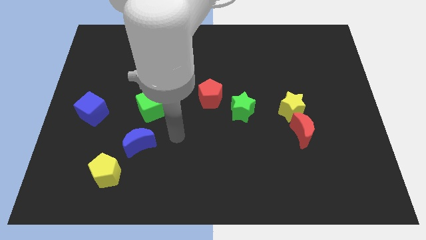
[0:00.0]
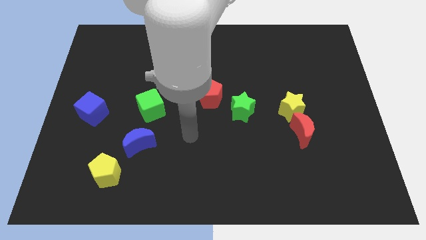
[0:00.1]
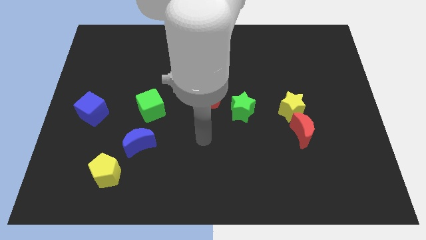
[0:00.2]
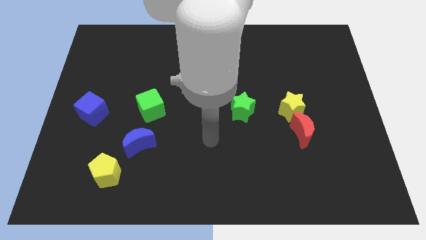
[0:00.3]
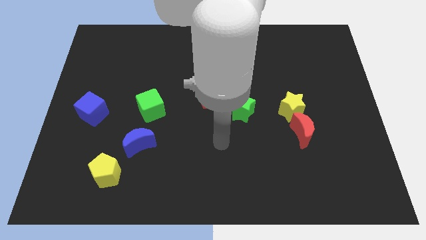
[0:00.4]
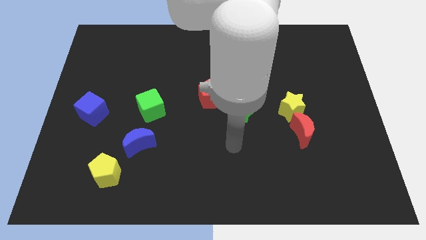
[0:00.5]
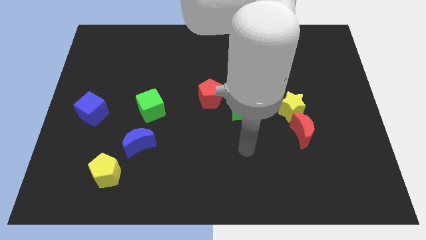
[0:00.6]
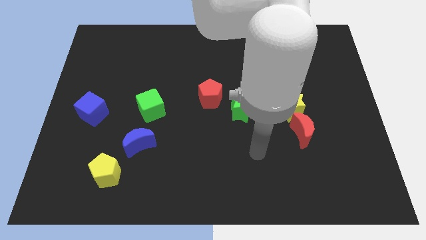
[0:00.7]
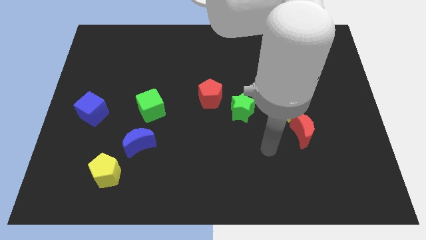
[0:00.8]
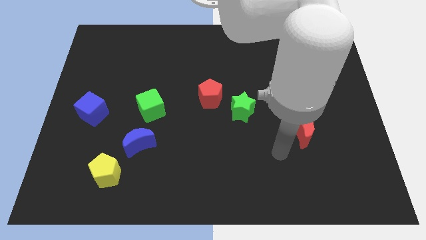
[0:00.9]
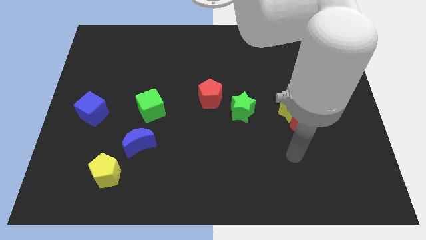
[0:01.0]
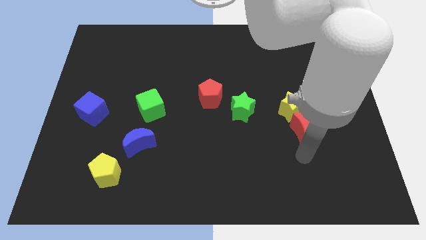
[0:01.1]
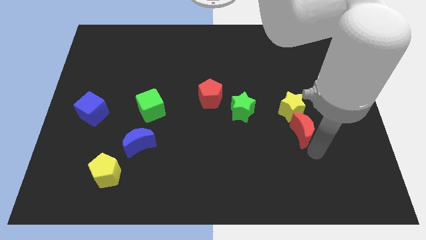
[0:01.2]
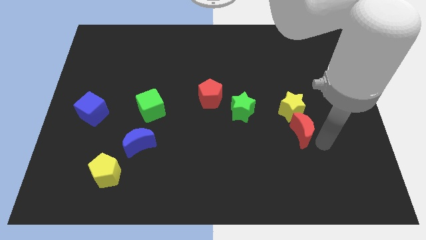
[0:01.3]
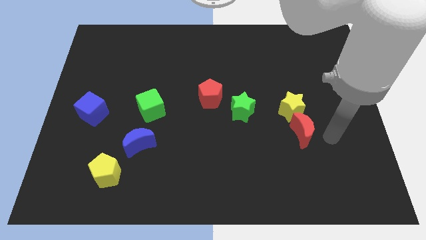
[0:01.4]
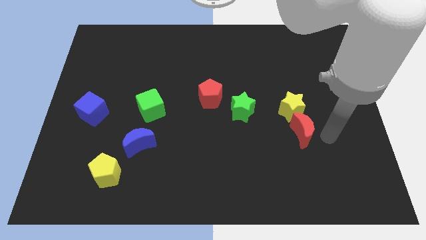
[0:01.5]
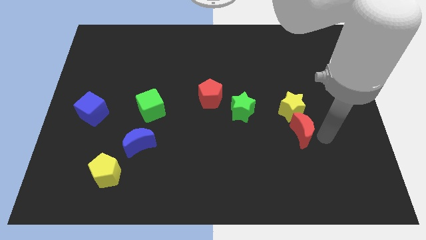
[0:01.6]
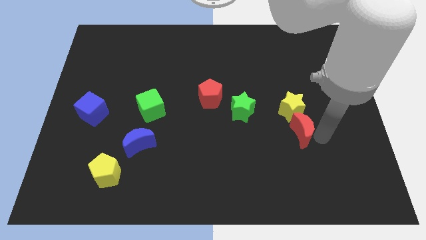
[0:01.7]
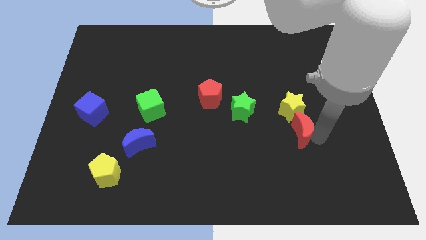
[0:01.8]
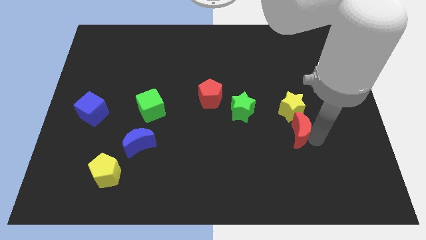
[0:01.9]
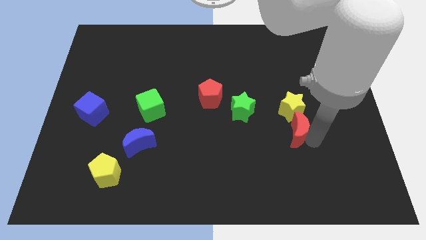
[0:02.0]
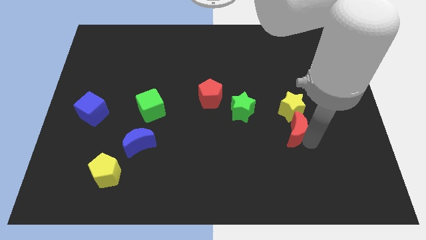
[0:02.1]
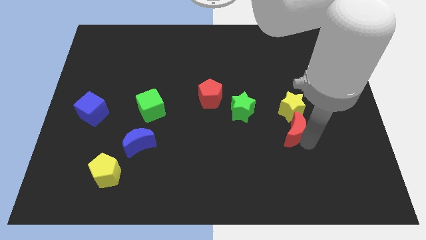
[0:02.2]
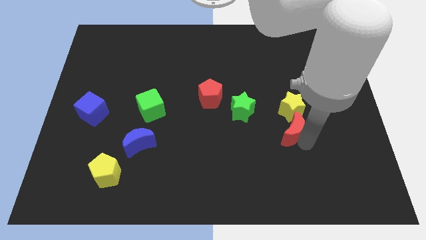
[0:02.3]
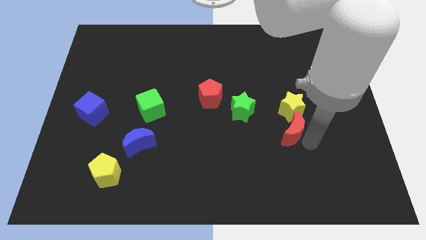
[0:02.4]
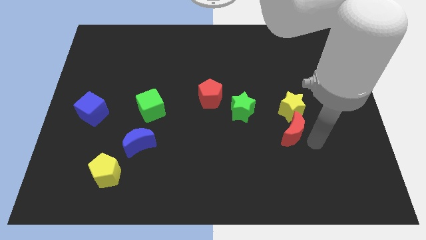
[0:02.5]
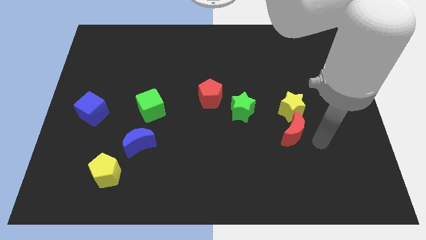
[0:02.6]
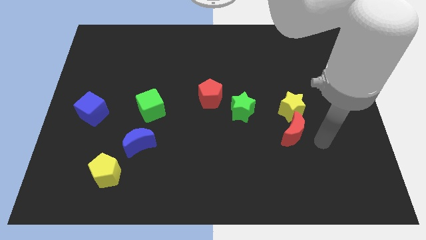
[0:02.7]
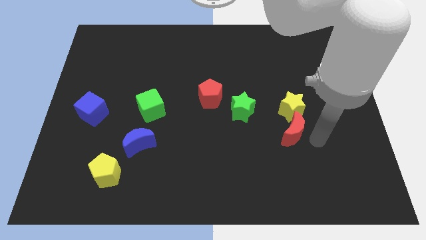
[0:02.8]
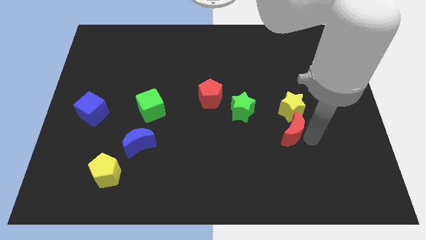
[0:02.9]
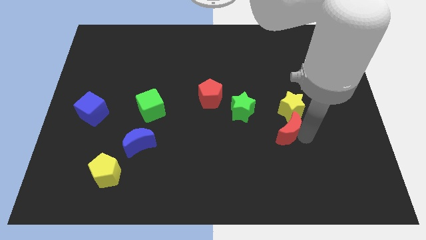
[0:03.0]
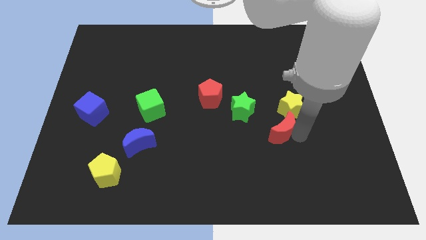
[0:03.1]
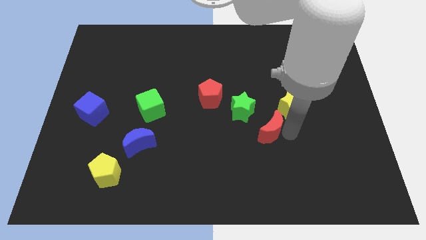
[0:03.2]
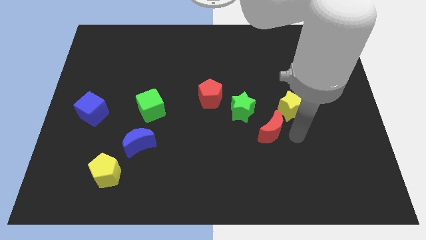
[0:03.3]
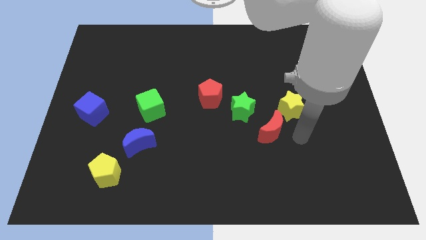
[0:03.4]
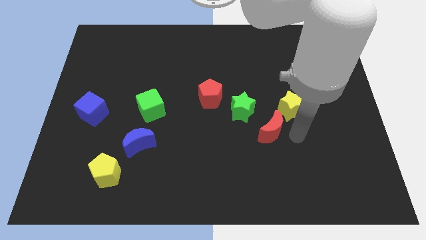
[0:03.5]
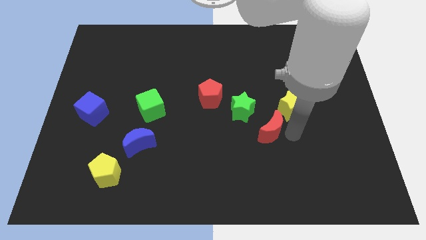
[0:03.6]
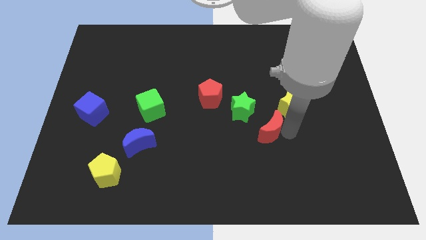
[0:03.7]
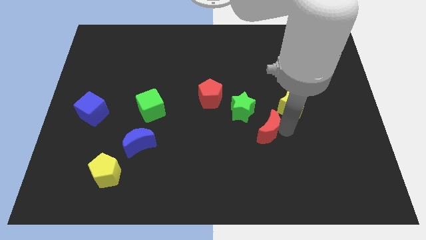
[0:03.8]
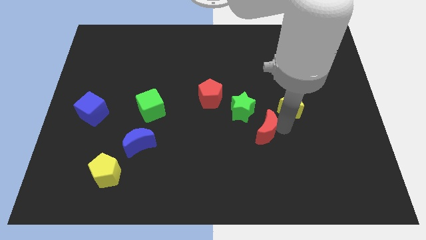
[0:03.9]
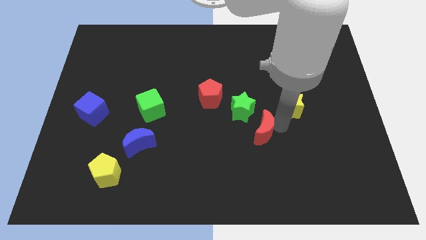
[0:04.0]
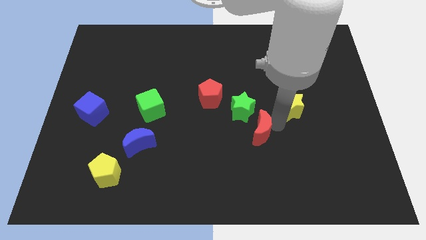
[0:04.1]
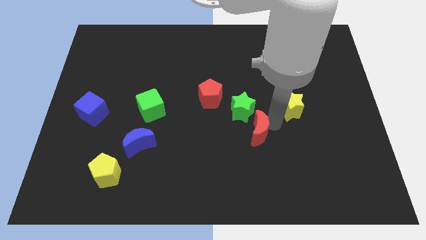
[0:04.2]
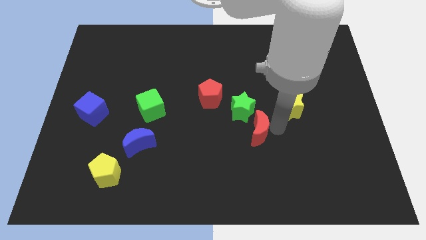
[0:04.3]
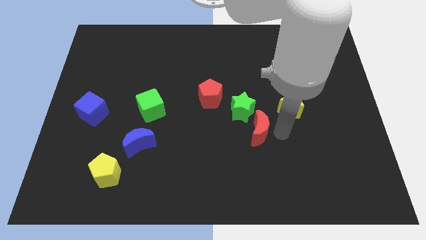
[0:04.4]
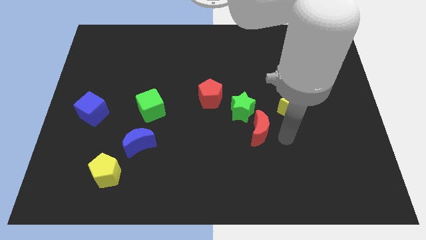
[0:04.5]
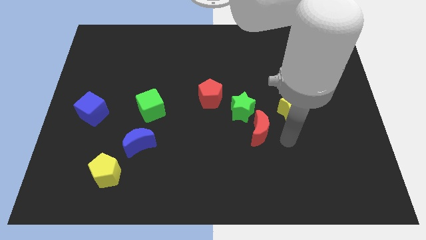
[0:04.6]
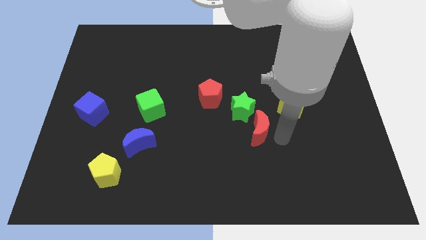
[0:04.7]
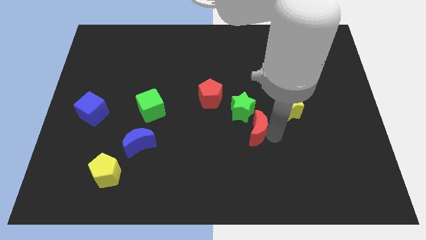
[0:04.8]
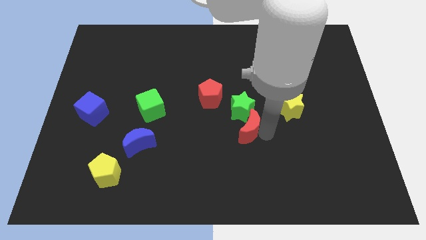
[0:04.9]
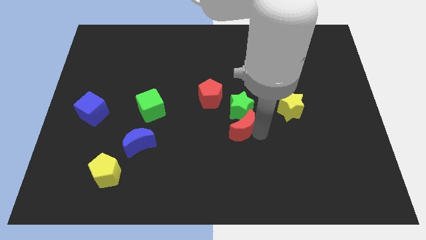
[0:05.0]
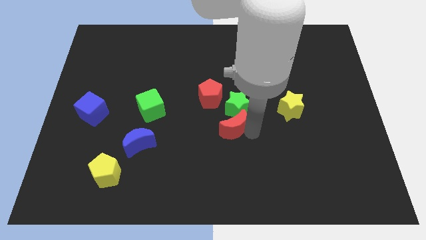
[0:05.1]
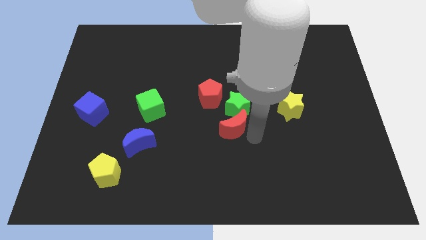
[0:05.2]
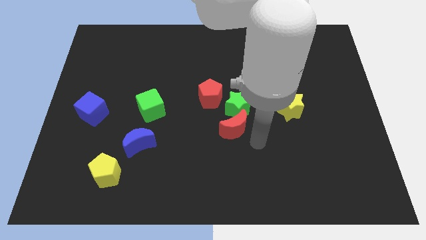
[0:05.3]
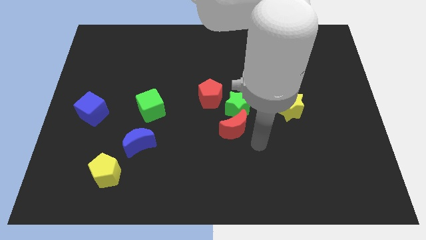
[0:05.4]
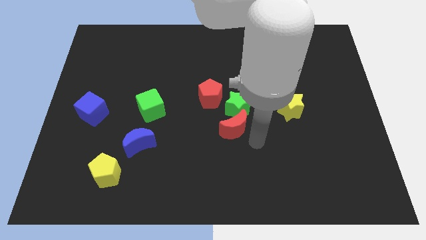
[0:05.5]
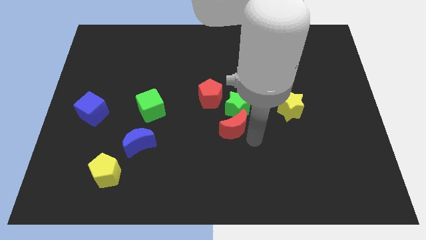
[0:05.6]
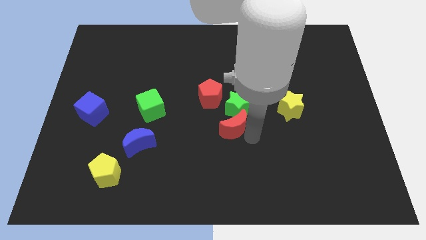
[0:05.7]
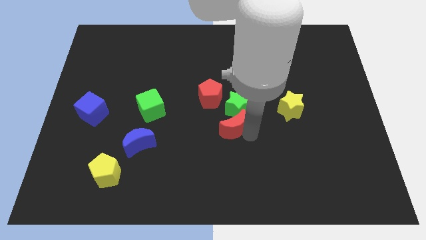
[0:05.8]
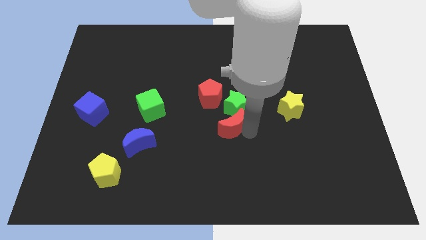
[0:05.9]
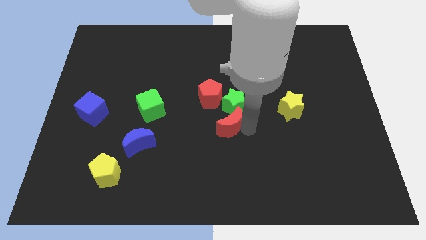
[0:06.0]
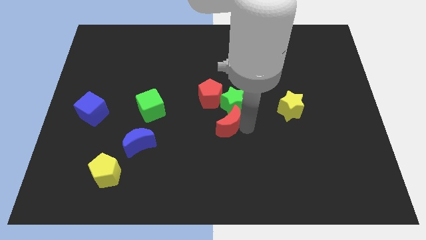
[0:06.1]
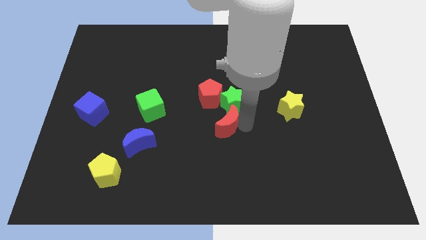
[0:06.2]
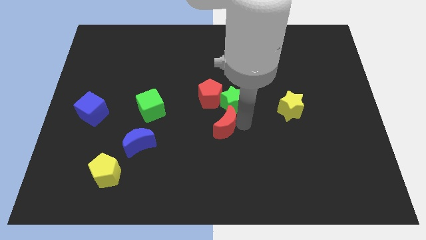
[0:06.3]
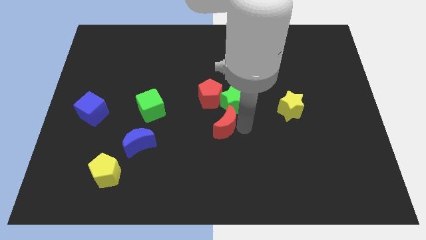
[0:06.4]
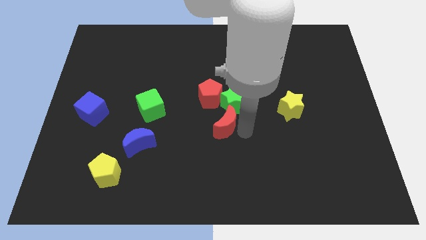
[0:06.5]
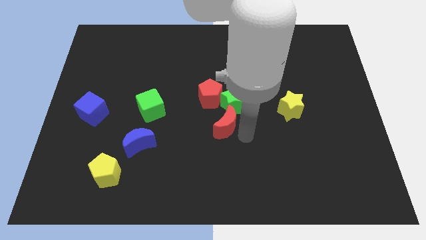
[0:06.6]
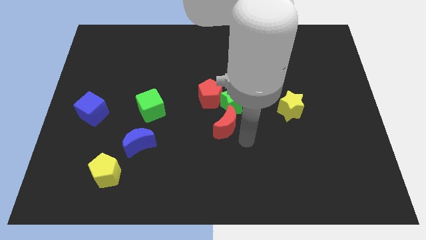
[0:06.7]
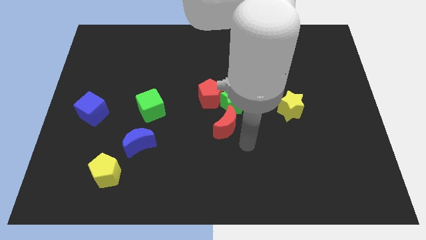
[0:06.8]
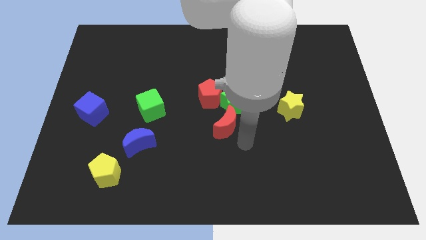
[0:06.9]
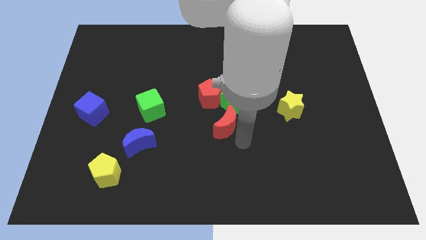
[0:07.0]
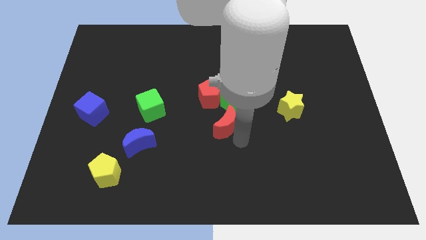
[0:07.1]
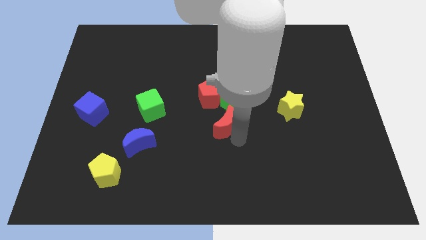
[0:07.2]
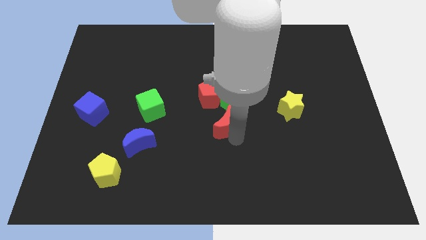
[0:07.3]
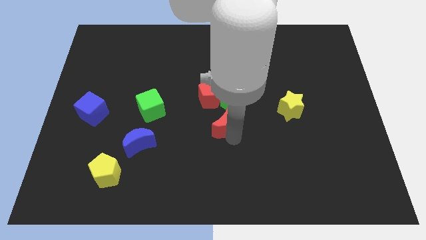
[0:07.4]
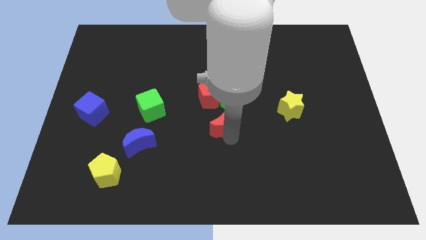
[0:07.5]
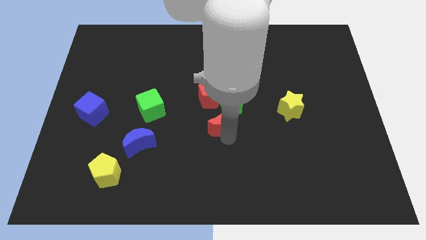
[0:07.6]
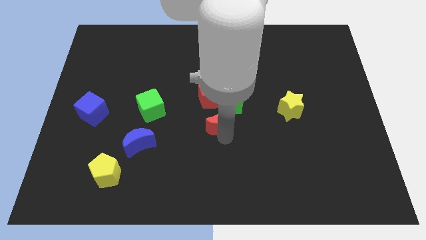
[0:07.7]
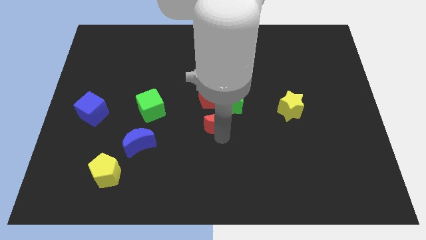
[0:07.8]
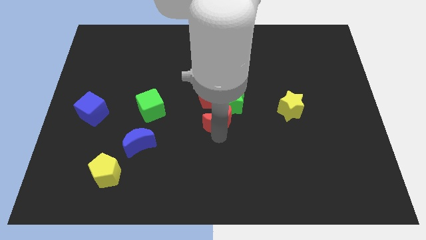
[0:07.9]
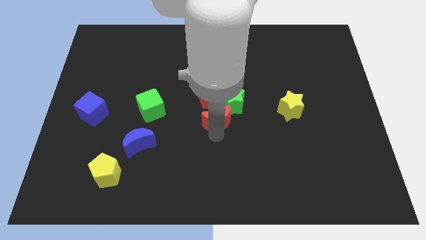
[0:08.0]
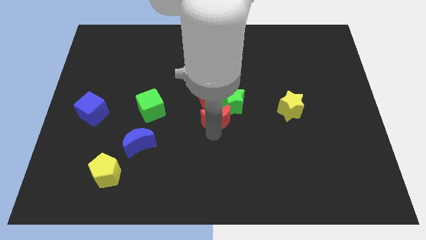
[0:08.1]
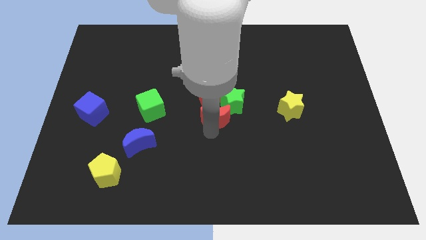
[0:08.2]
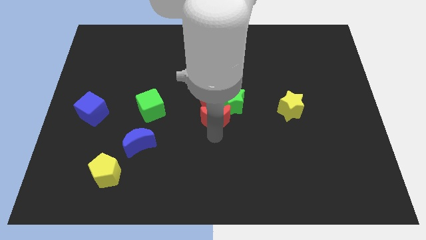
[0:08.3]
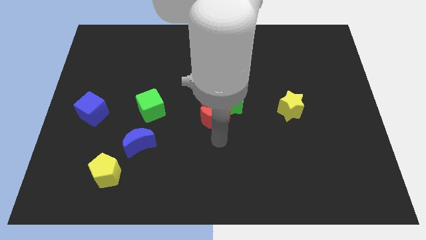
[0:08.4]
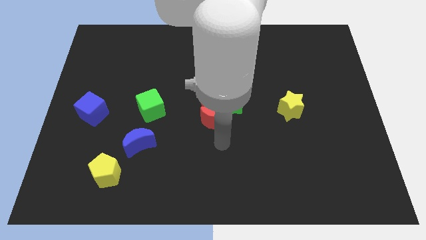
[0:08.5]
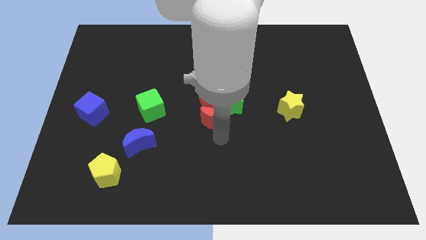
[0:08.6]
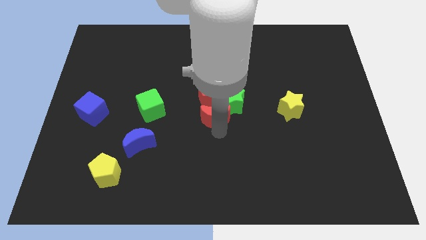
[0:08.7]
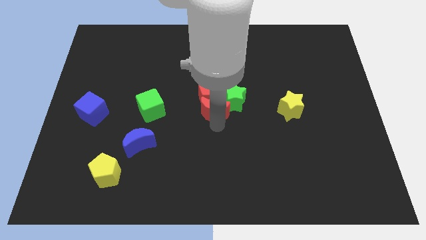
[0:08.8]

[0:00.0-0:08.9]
move the red moon next to the red pentagon
